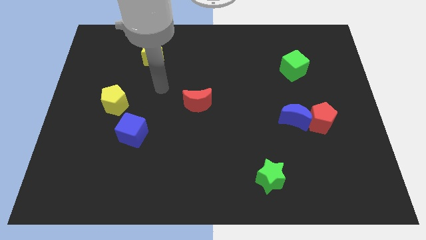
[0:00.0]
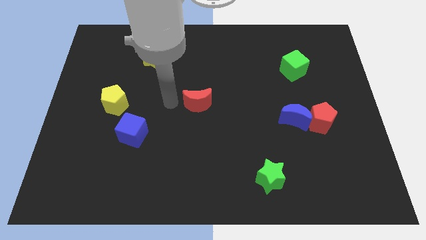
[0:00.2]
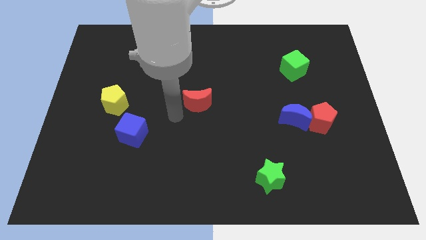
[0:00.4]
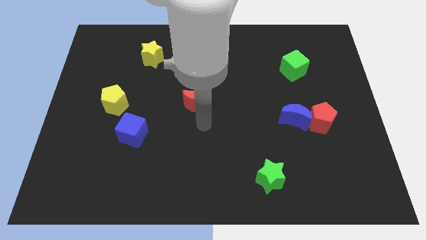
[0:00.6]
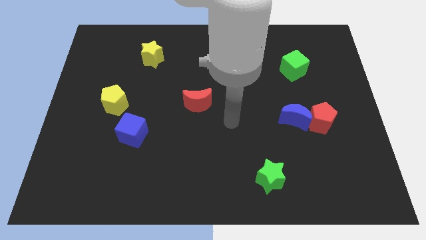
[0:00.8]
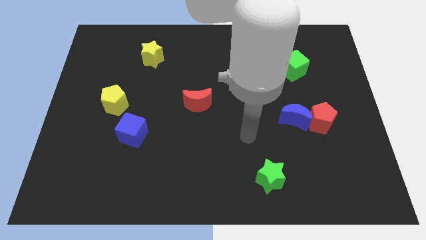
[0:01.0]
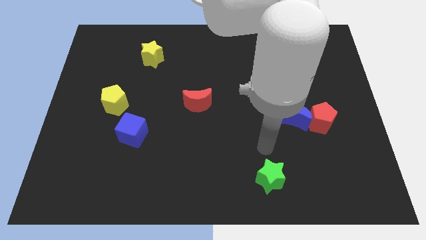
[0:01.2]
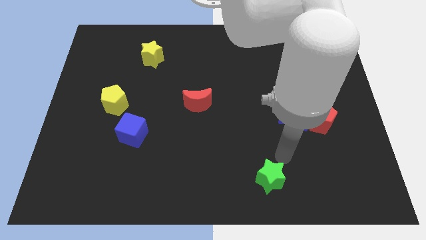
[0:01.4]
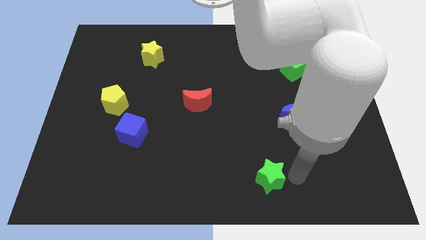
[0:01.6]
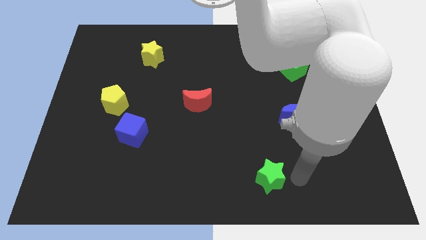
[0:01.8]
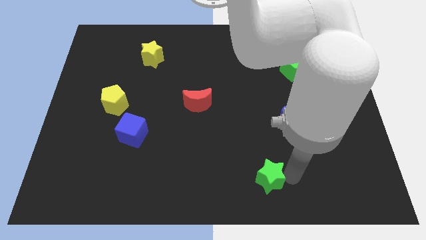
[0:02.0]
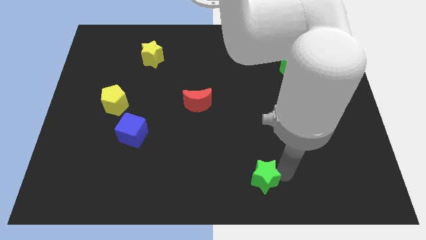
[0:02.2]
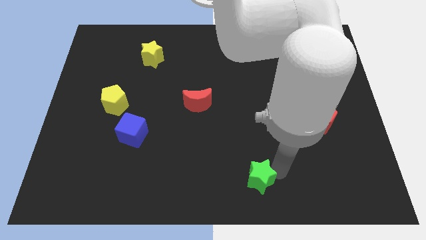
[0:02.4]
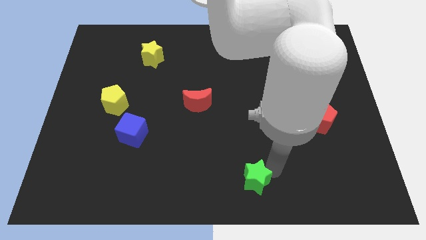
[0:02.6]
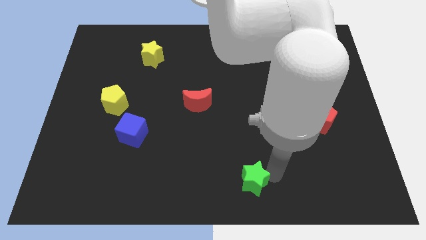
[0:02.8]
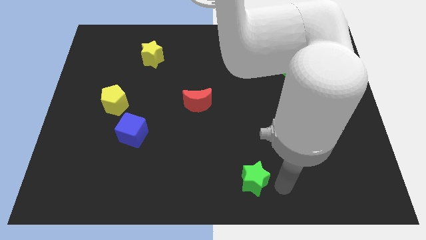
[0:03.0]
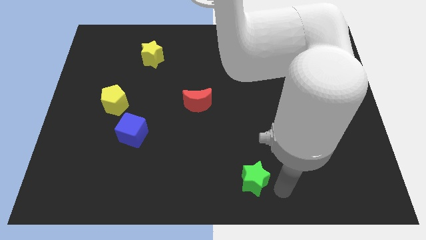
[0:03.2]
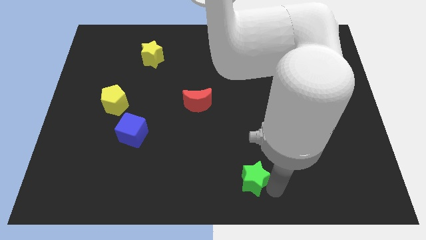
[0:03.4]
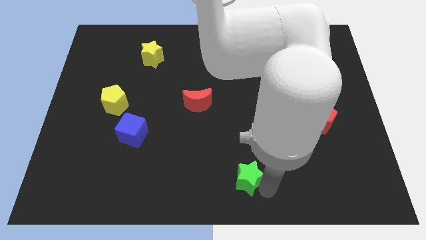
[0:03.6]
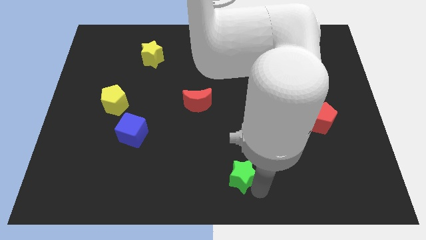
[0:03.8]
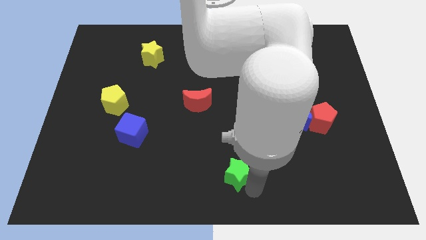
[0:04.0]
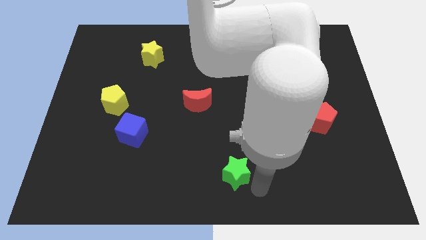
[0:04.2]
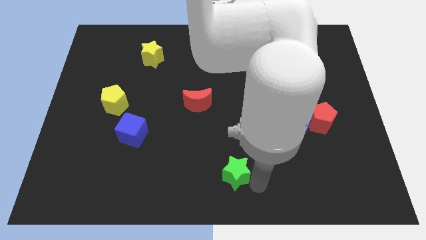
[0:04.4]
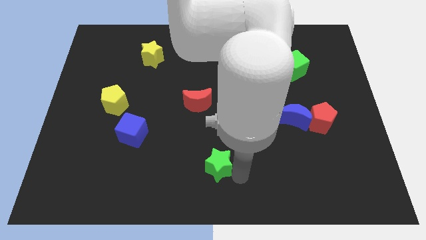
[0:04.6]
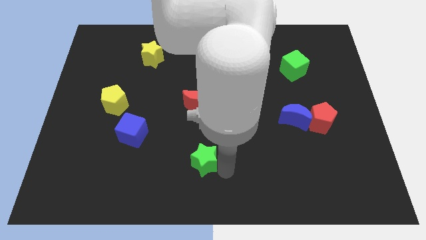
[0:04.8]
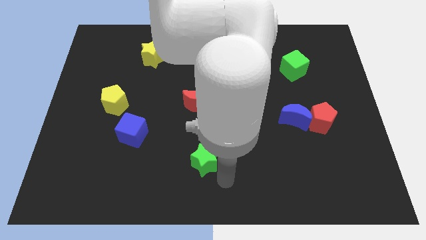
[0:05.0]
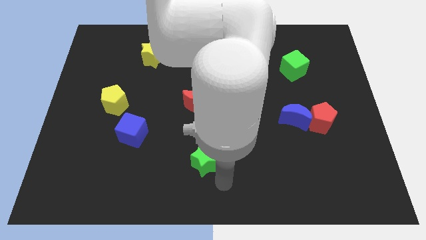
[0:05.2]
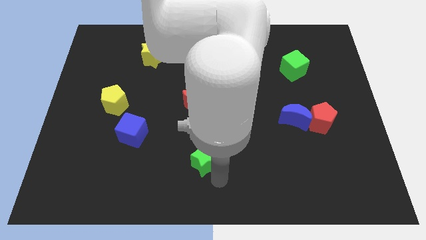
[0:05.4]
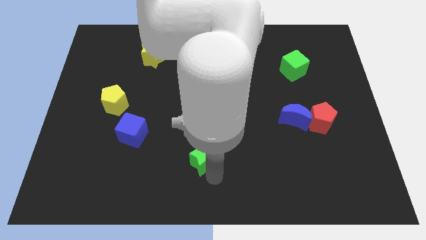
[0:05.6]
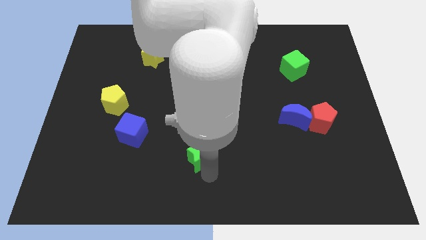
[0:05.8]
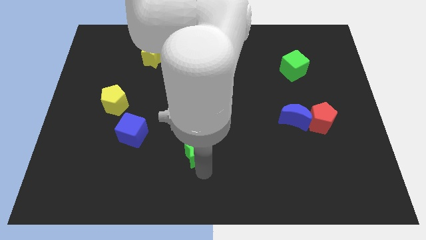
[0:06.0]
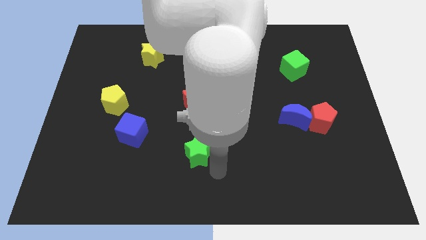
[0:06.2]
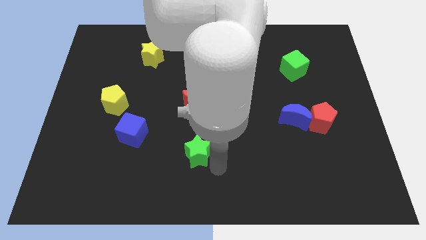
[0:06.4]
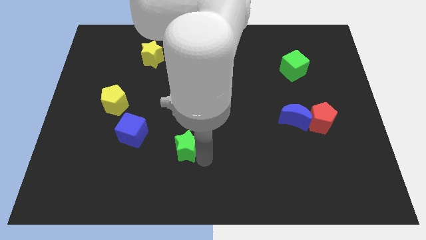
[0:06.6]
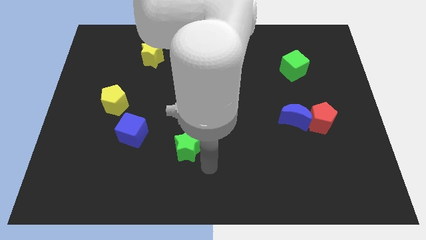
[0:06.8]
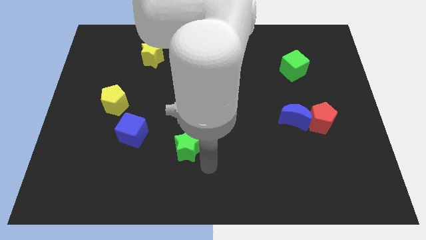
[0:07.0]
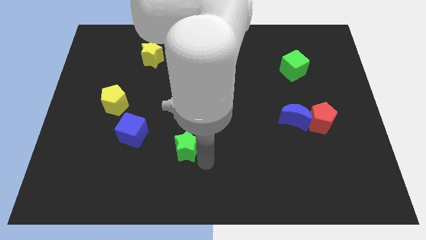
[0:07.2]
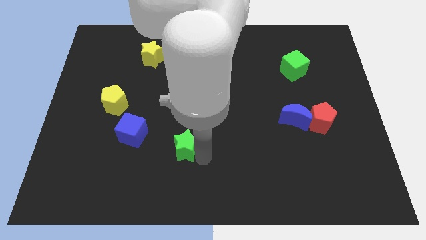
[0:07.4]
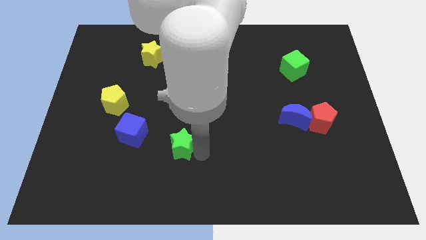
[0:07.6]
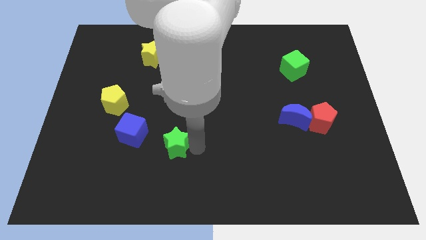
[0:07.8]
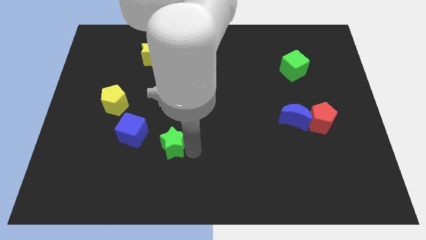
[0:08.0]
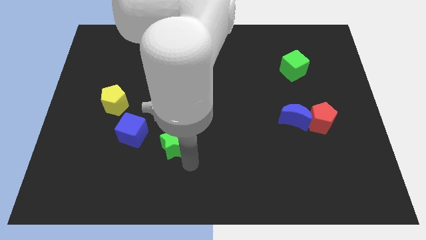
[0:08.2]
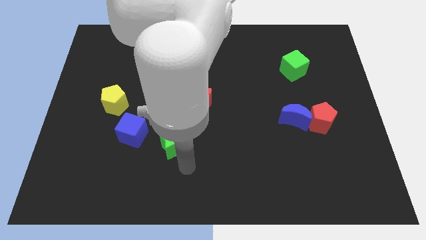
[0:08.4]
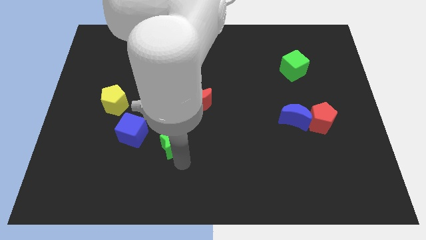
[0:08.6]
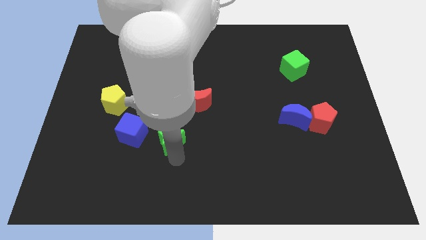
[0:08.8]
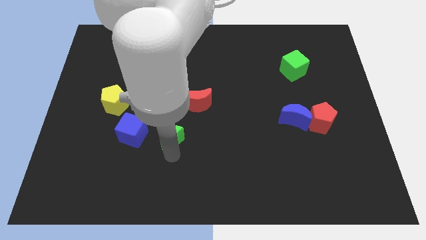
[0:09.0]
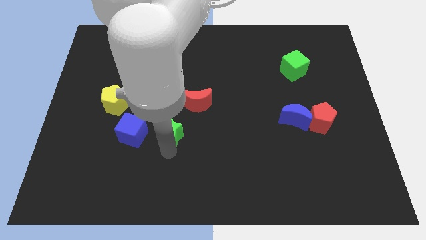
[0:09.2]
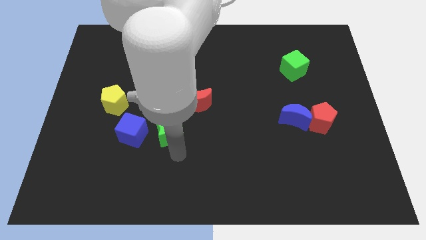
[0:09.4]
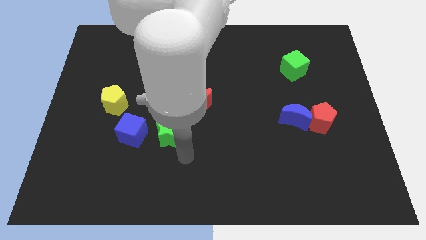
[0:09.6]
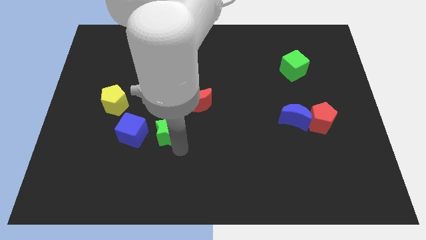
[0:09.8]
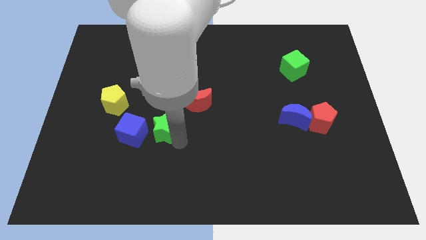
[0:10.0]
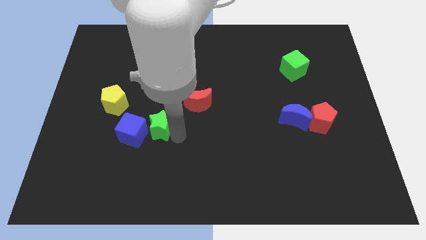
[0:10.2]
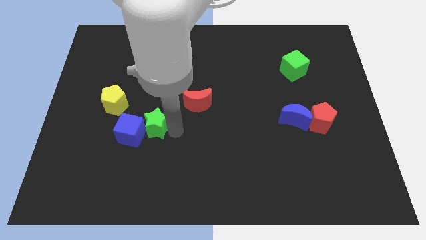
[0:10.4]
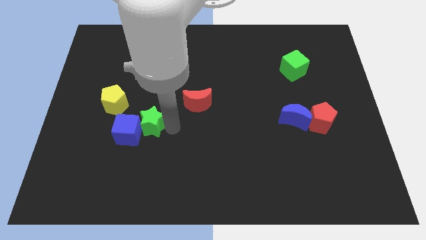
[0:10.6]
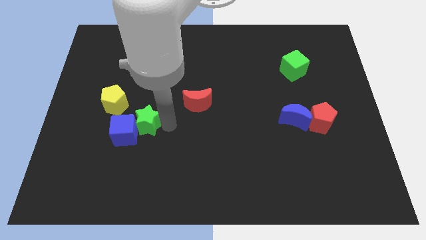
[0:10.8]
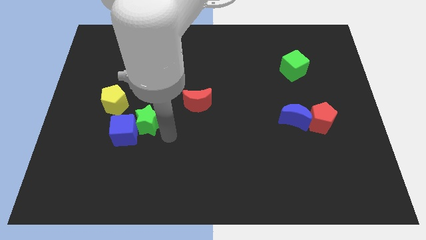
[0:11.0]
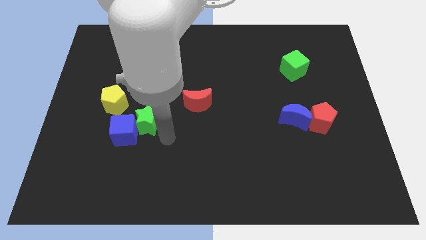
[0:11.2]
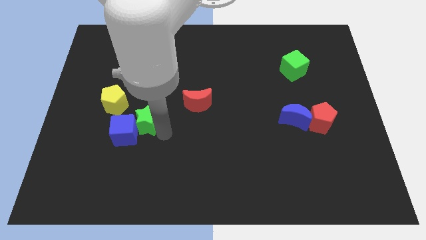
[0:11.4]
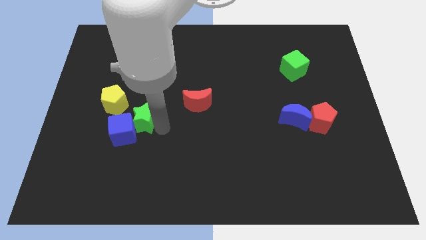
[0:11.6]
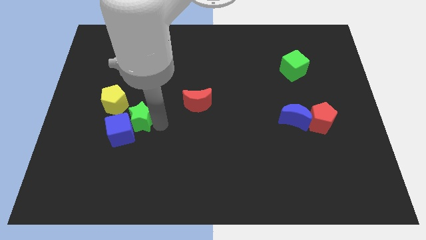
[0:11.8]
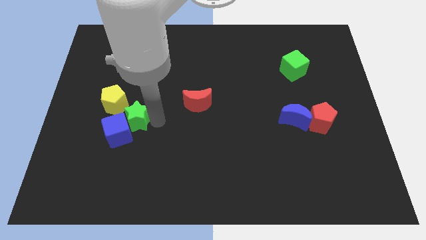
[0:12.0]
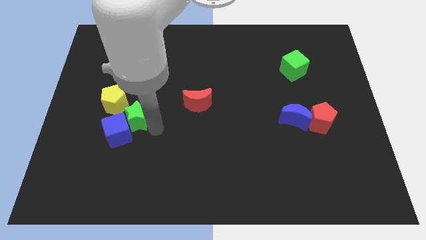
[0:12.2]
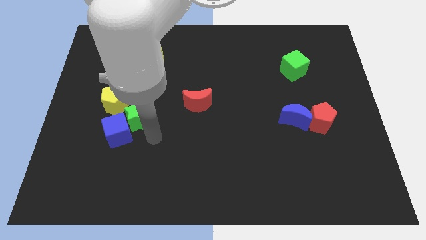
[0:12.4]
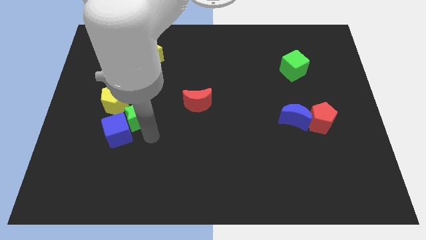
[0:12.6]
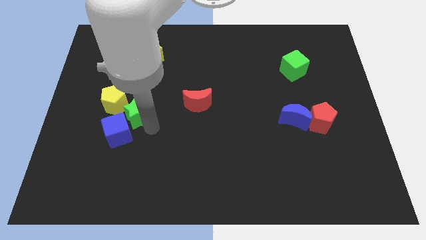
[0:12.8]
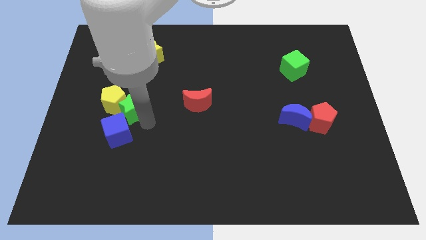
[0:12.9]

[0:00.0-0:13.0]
slide the green star towards the yellow pentagon

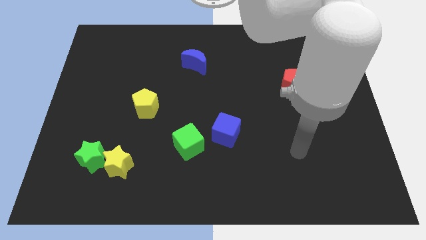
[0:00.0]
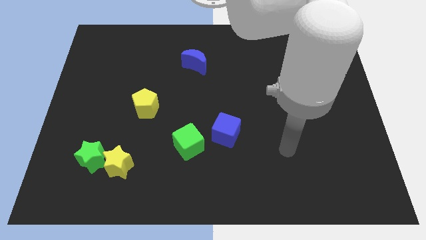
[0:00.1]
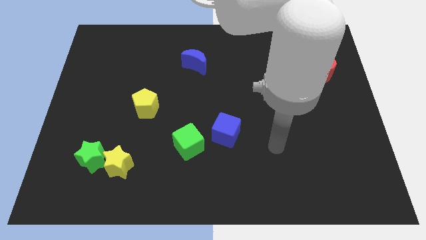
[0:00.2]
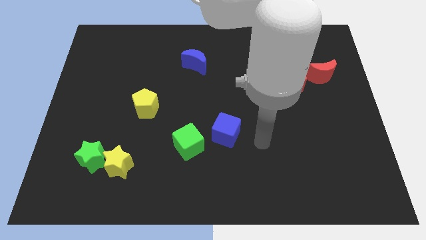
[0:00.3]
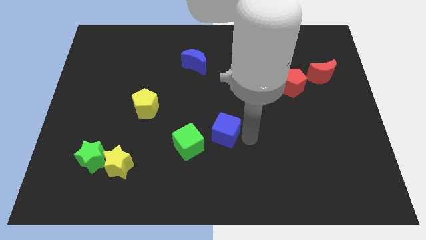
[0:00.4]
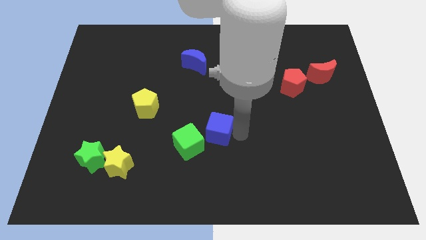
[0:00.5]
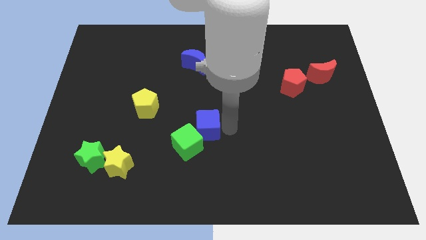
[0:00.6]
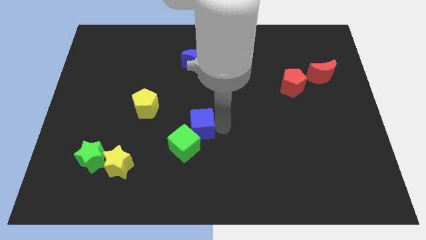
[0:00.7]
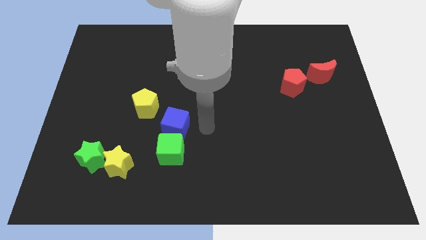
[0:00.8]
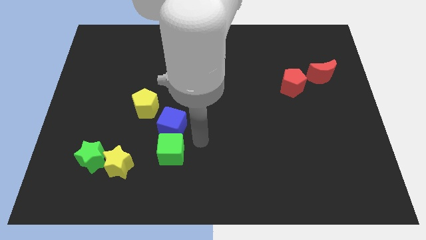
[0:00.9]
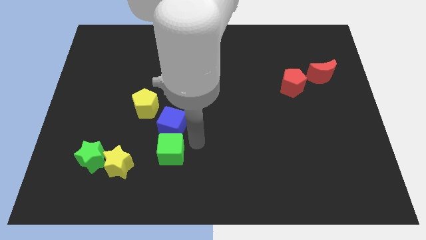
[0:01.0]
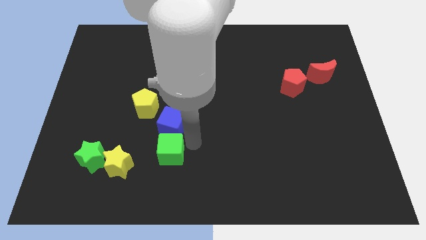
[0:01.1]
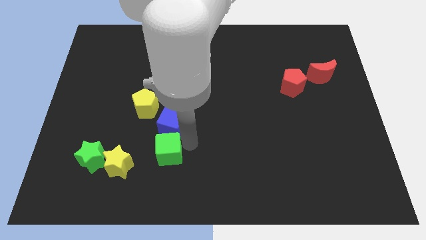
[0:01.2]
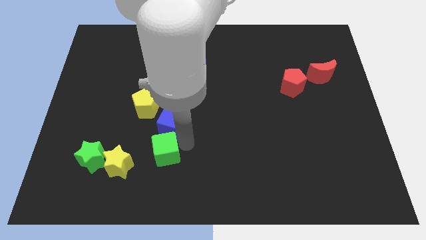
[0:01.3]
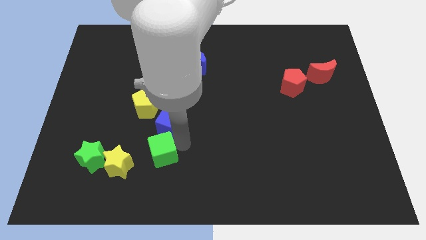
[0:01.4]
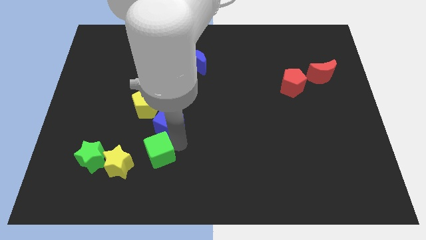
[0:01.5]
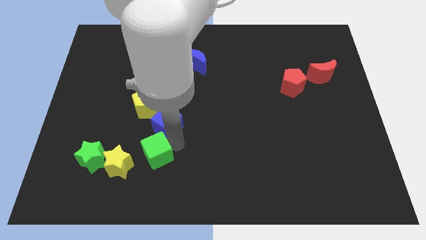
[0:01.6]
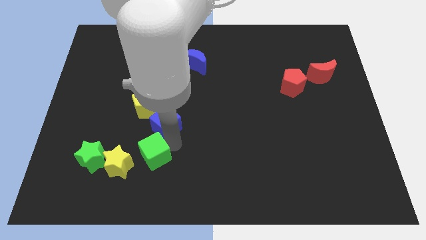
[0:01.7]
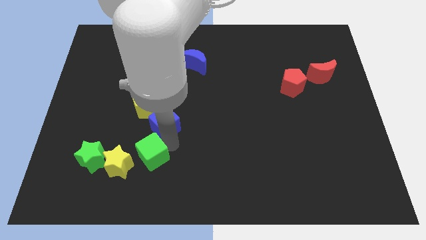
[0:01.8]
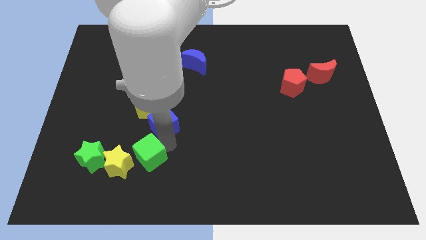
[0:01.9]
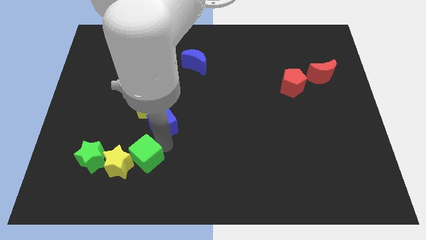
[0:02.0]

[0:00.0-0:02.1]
slide the green cube next to the yellow star
